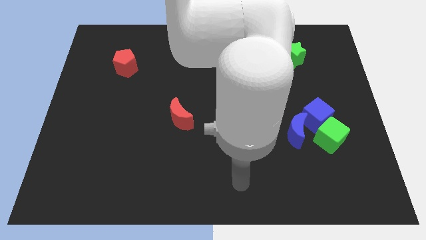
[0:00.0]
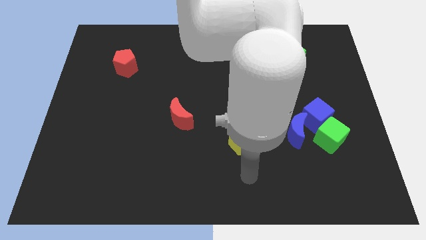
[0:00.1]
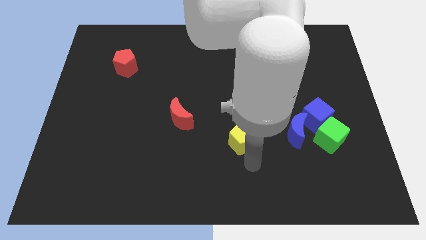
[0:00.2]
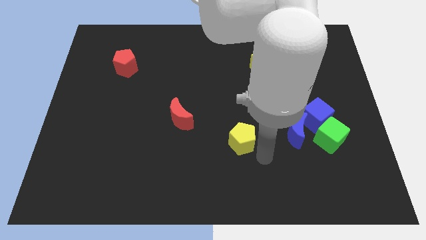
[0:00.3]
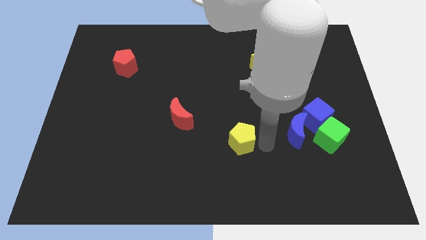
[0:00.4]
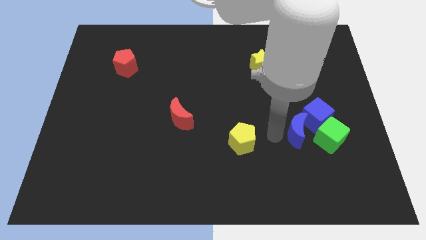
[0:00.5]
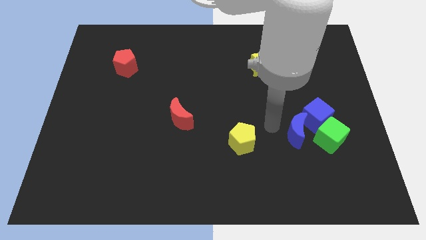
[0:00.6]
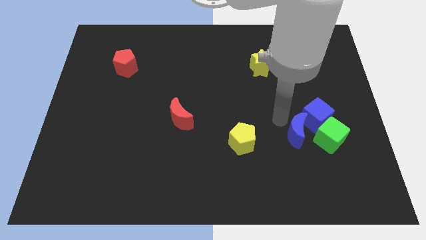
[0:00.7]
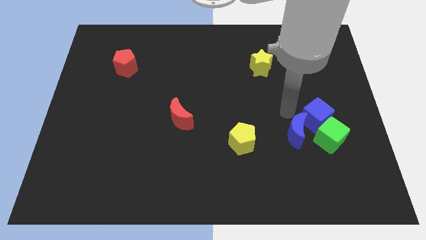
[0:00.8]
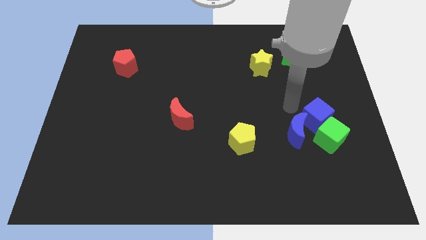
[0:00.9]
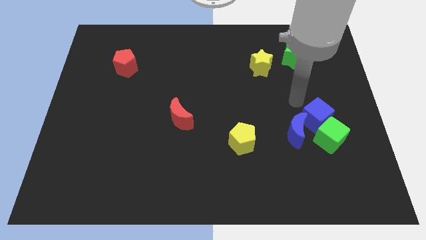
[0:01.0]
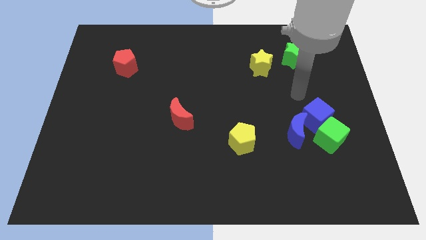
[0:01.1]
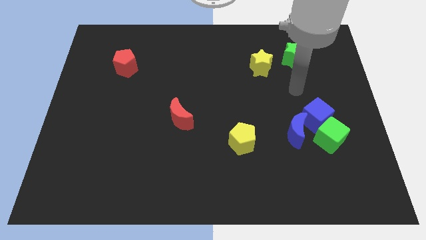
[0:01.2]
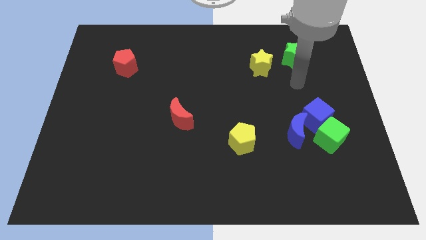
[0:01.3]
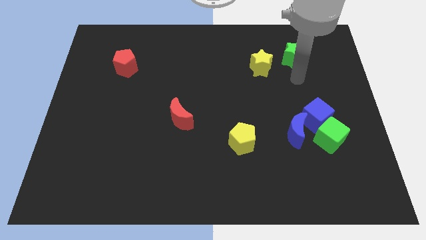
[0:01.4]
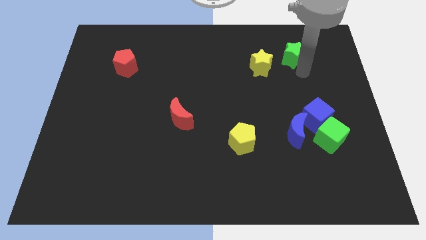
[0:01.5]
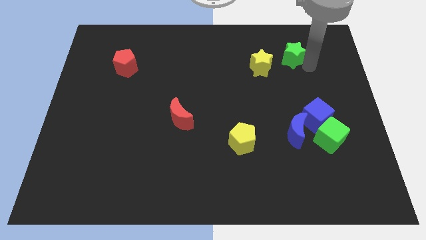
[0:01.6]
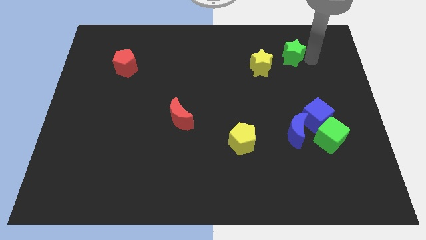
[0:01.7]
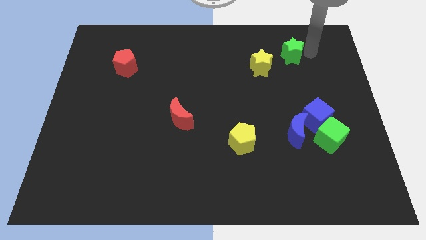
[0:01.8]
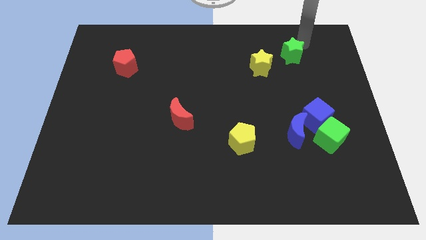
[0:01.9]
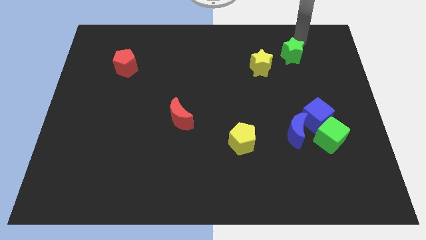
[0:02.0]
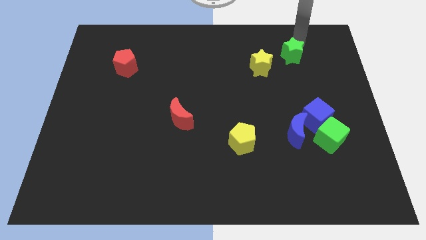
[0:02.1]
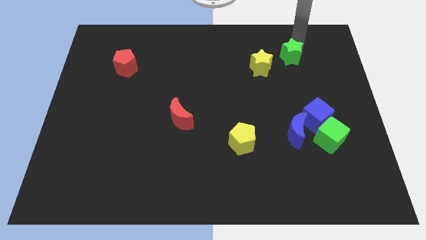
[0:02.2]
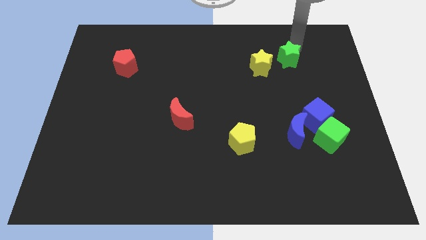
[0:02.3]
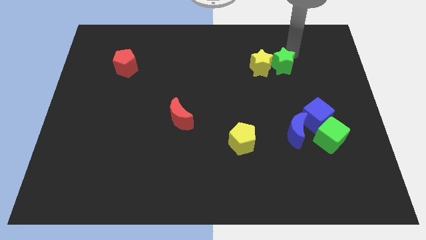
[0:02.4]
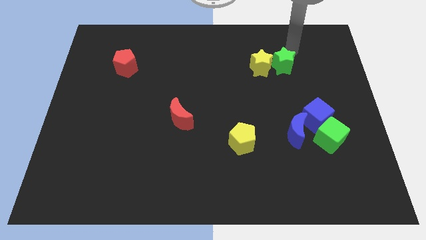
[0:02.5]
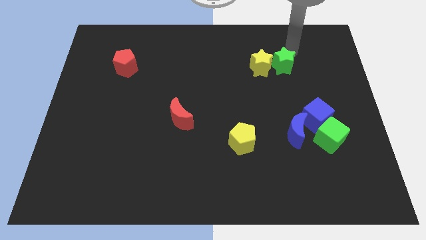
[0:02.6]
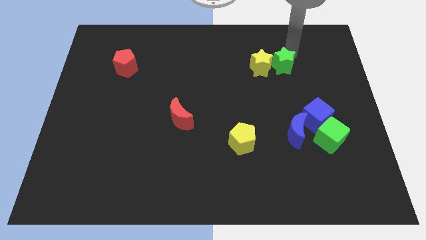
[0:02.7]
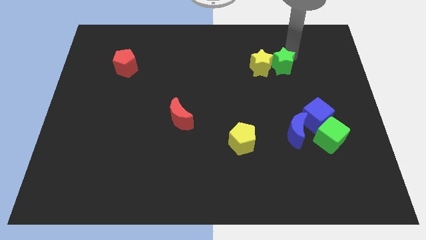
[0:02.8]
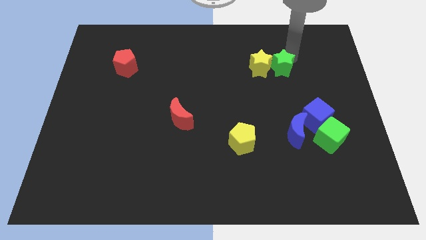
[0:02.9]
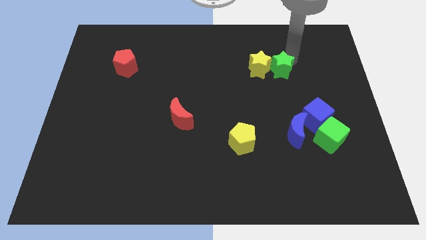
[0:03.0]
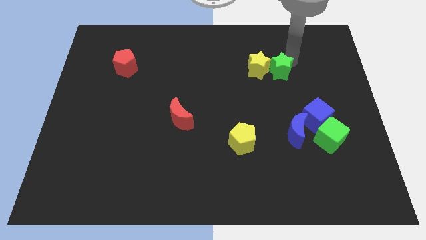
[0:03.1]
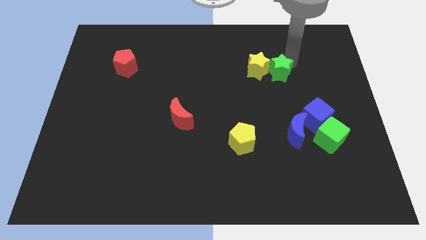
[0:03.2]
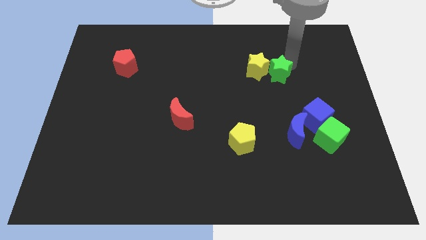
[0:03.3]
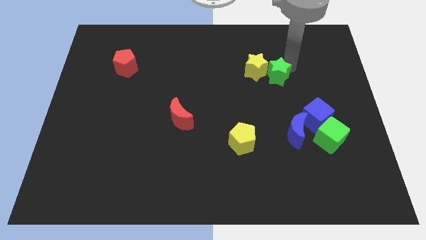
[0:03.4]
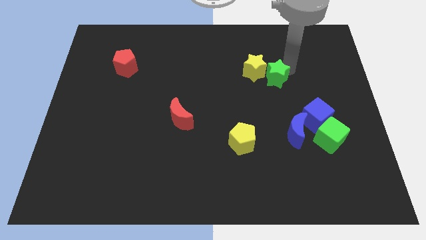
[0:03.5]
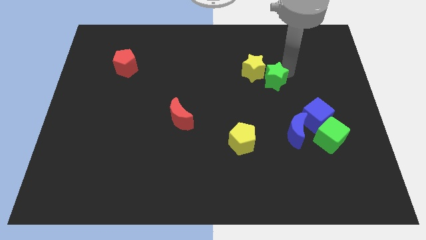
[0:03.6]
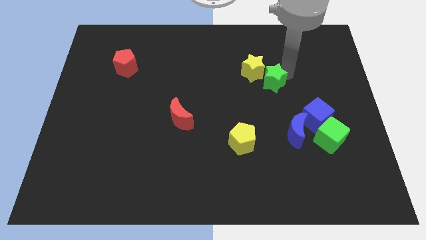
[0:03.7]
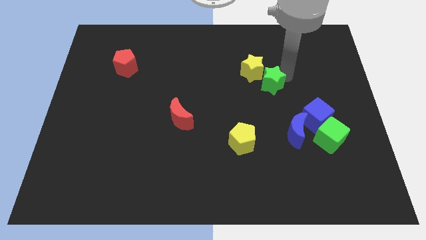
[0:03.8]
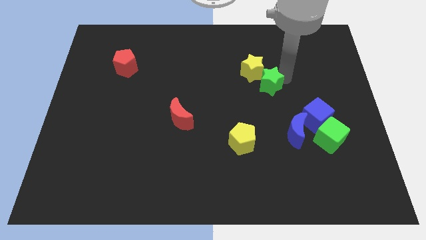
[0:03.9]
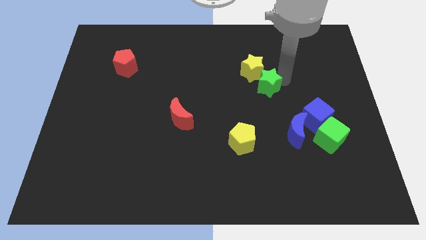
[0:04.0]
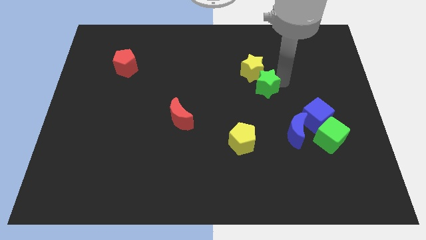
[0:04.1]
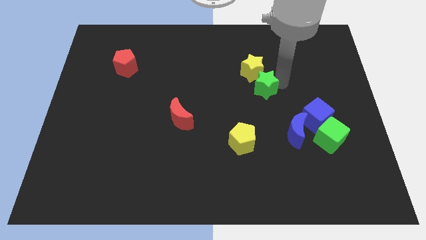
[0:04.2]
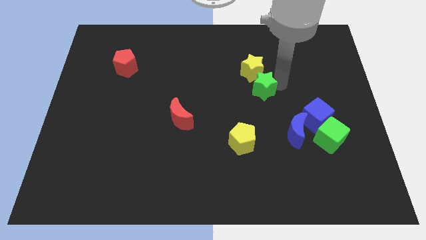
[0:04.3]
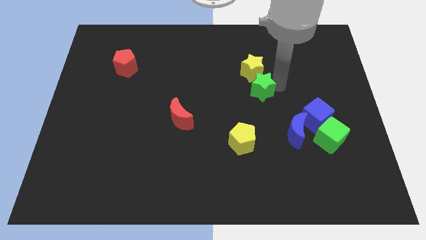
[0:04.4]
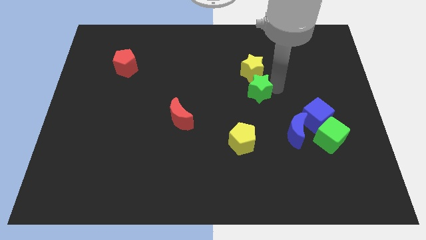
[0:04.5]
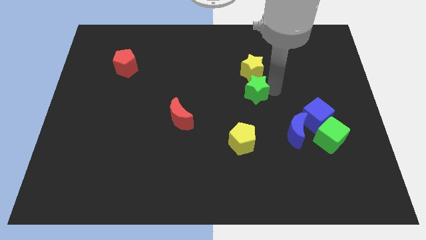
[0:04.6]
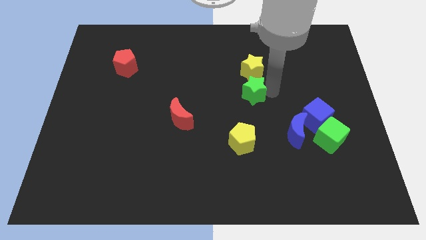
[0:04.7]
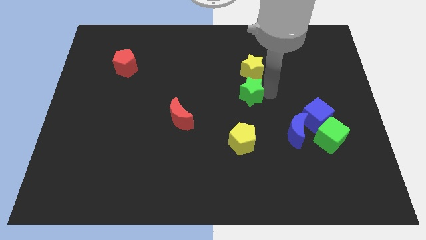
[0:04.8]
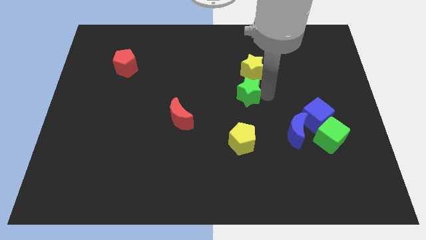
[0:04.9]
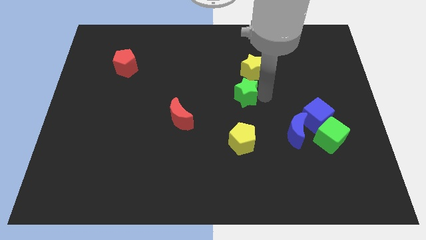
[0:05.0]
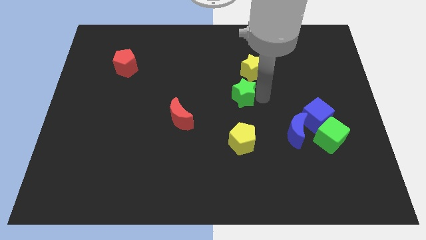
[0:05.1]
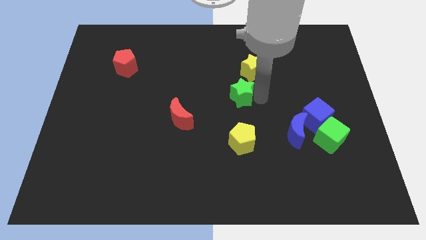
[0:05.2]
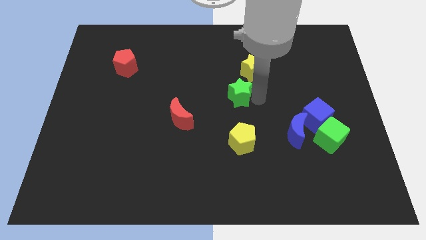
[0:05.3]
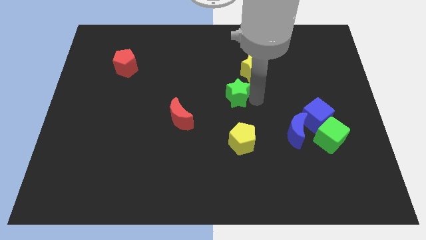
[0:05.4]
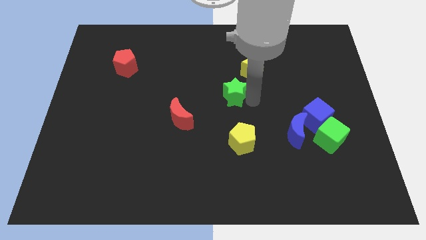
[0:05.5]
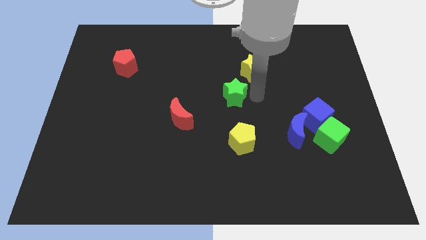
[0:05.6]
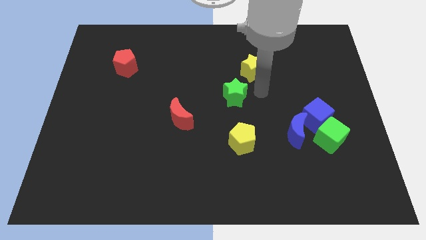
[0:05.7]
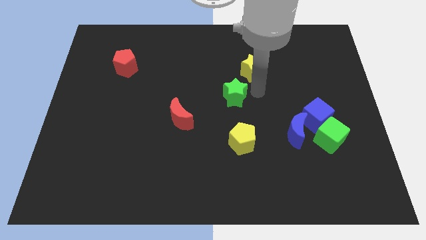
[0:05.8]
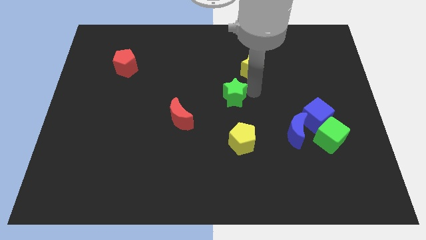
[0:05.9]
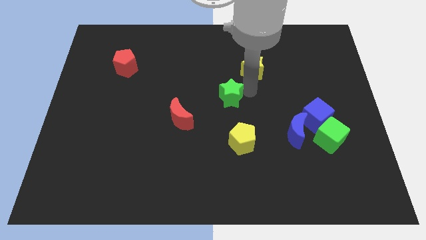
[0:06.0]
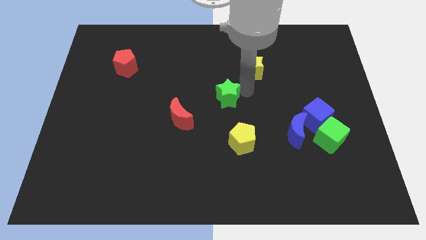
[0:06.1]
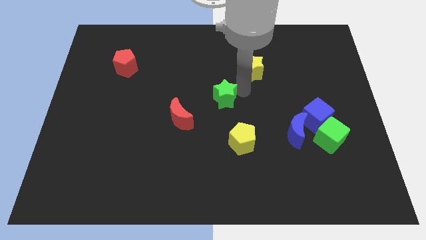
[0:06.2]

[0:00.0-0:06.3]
slide the green star diagonally up and to the right of the red moon
